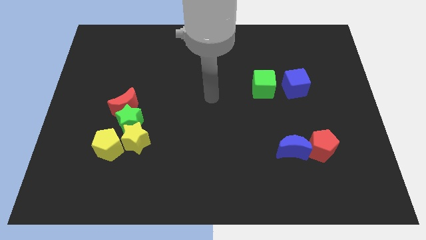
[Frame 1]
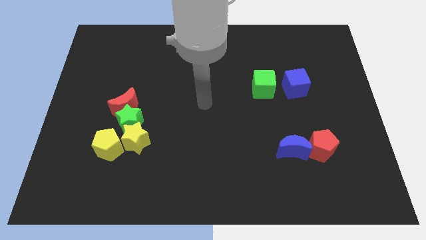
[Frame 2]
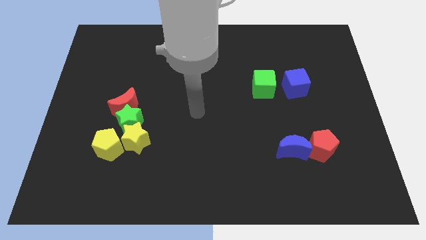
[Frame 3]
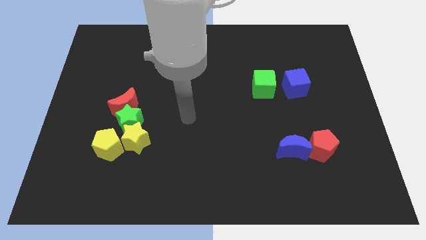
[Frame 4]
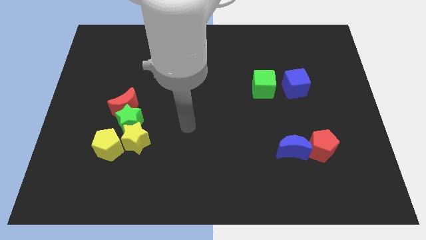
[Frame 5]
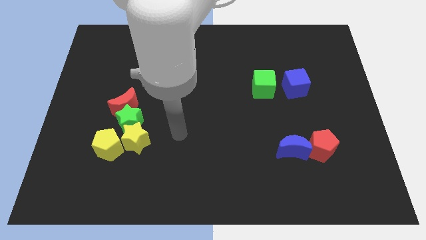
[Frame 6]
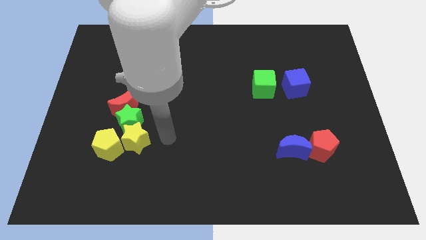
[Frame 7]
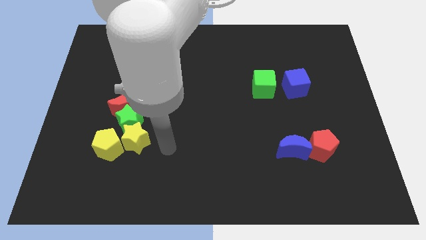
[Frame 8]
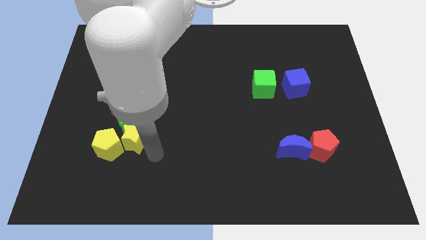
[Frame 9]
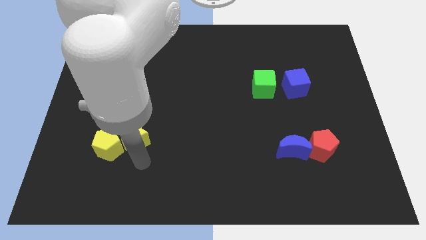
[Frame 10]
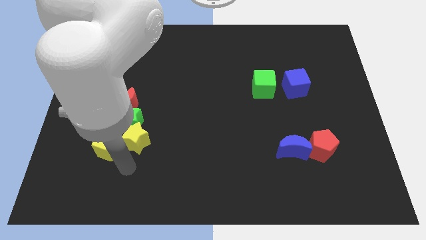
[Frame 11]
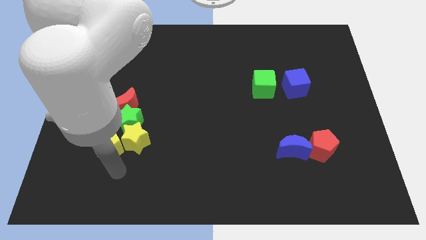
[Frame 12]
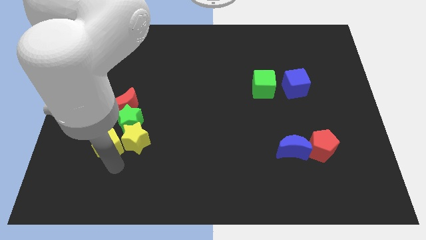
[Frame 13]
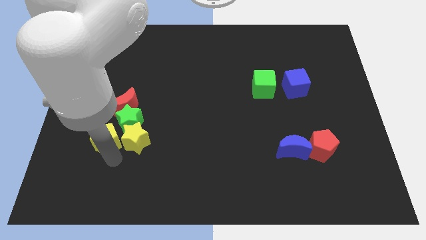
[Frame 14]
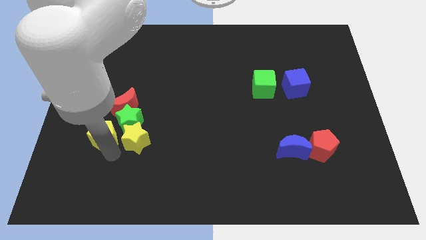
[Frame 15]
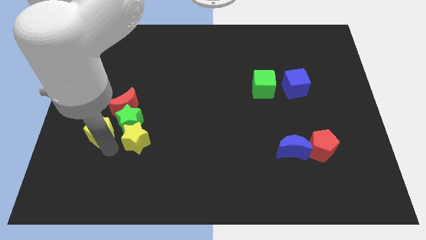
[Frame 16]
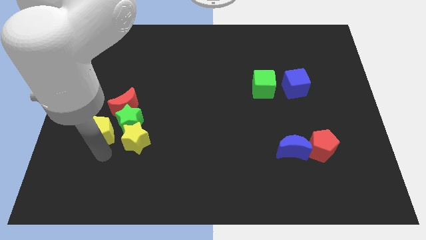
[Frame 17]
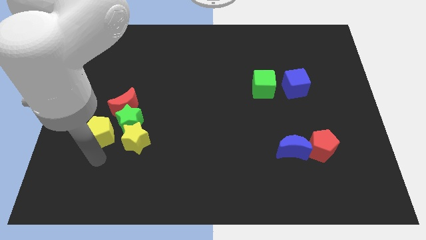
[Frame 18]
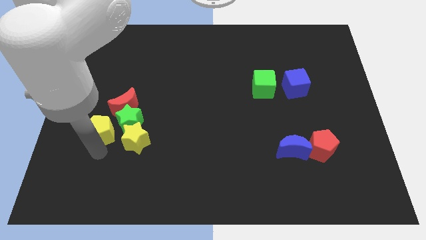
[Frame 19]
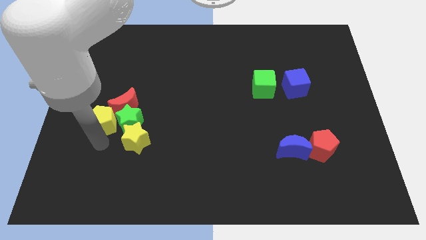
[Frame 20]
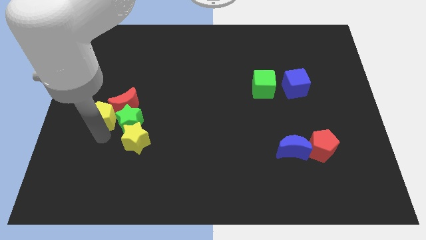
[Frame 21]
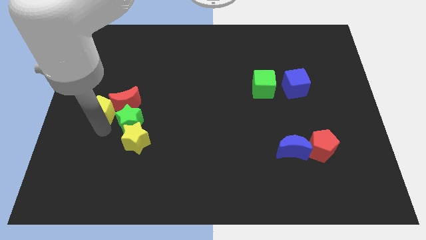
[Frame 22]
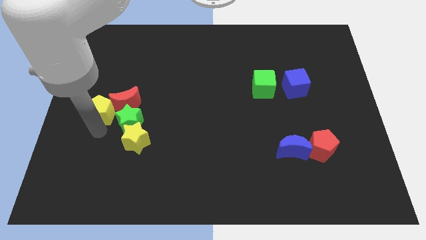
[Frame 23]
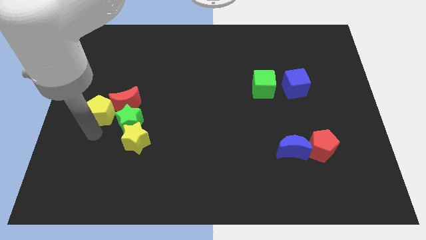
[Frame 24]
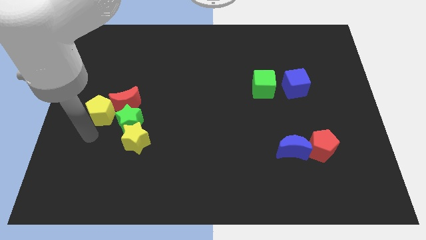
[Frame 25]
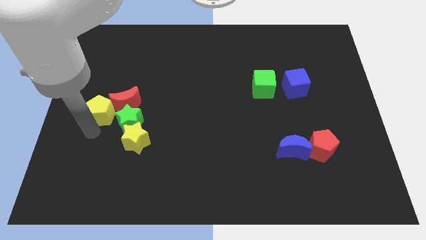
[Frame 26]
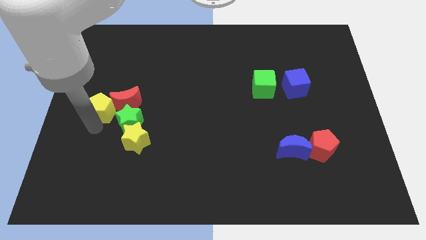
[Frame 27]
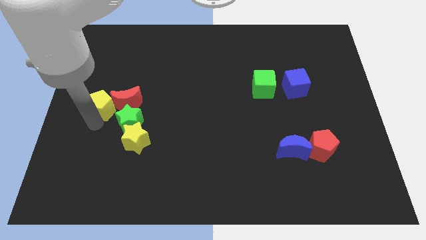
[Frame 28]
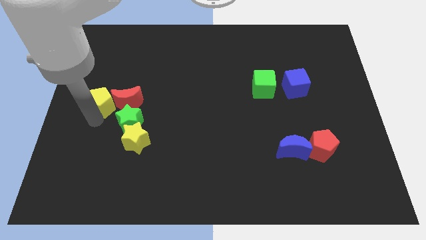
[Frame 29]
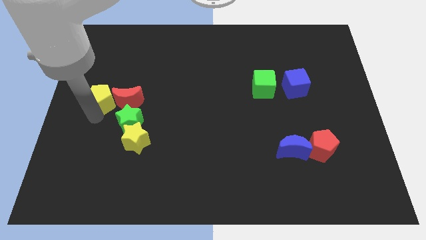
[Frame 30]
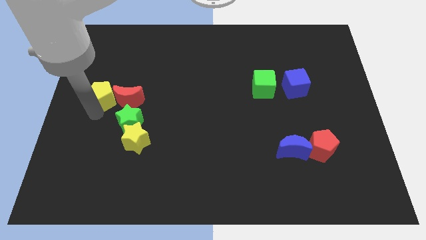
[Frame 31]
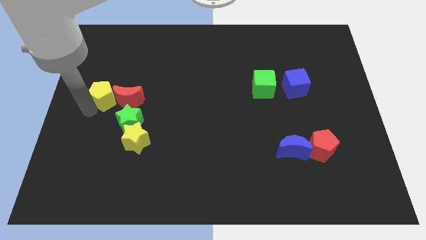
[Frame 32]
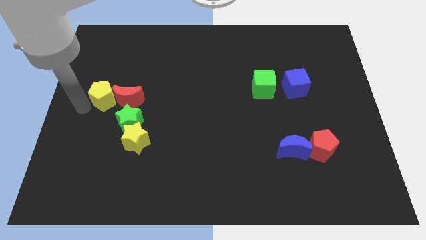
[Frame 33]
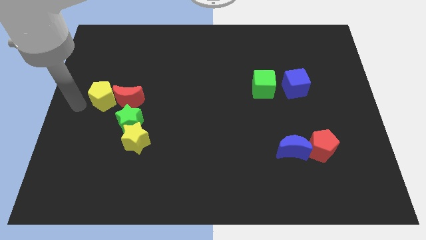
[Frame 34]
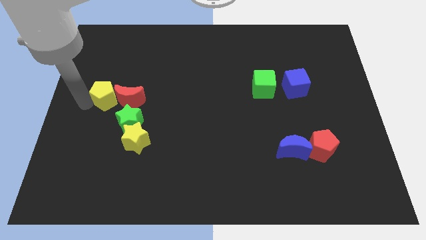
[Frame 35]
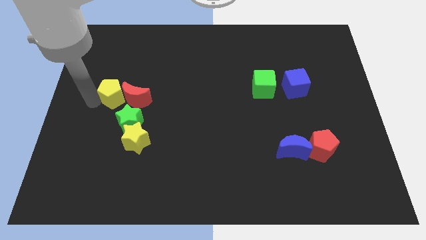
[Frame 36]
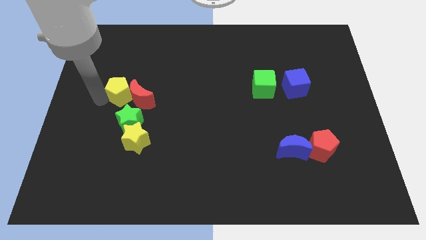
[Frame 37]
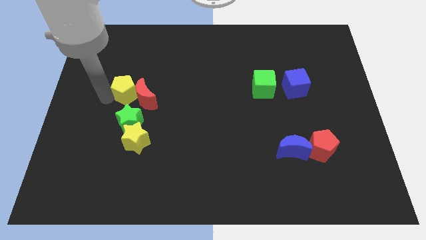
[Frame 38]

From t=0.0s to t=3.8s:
slide the yellow pentagon upwards and to the right diagonally somewhat

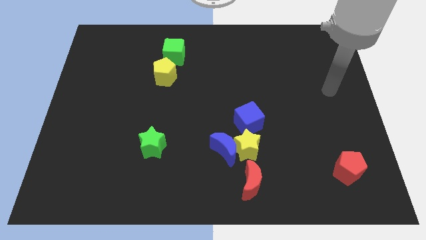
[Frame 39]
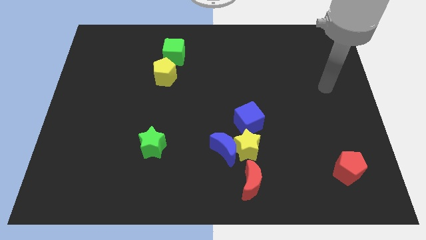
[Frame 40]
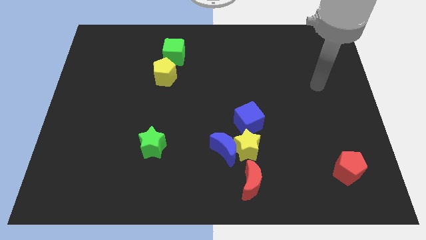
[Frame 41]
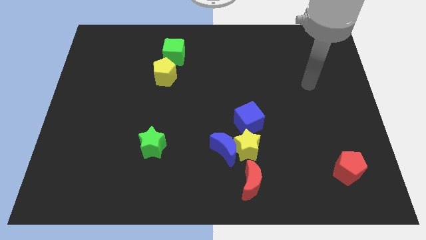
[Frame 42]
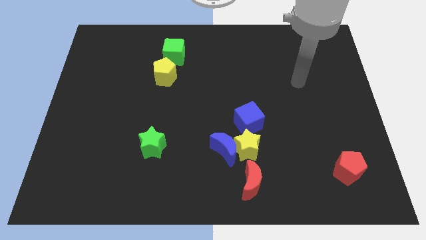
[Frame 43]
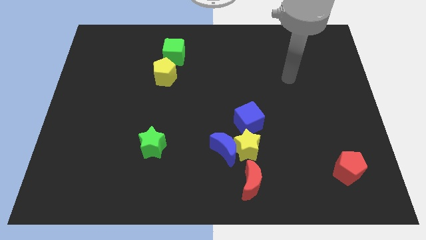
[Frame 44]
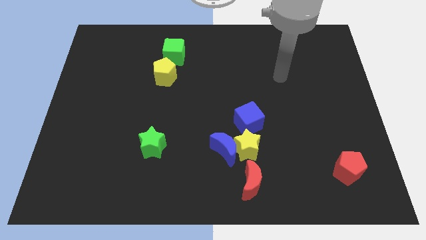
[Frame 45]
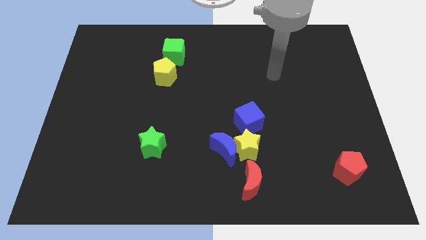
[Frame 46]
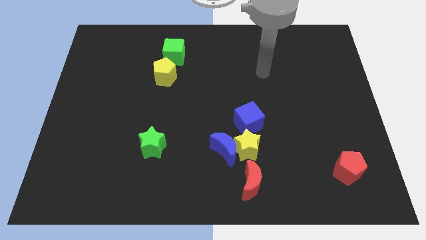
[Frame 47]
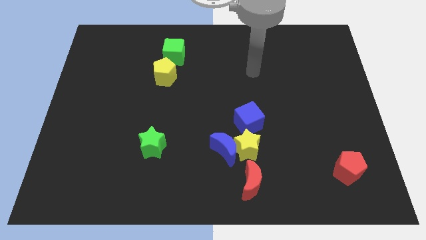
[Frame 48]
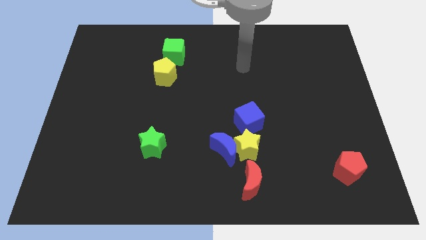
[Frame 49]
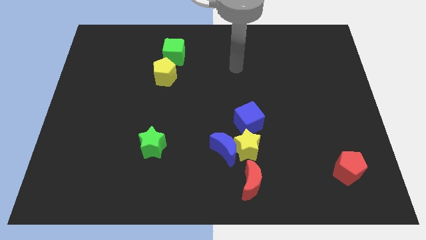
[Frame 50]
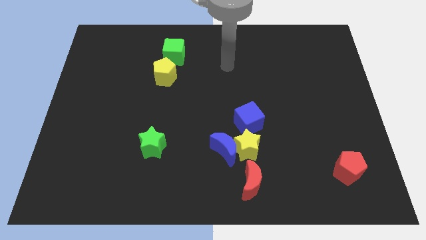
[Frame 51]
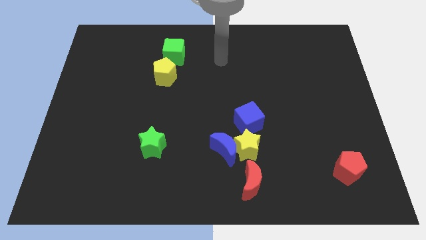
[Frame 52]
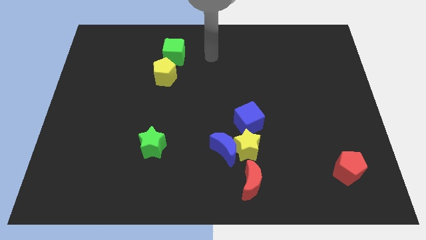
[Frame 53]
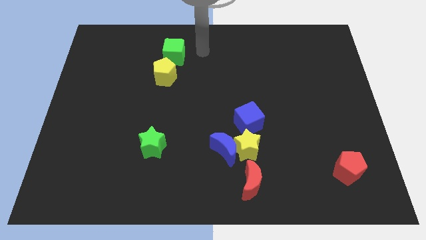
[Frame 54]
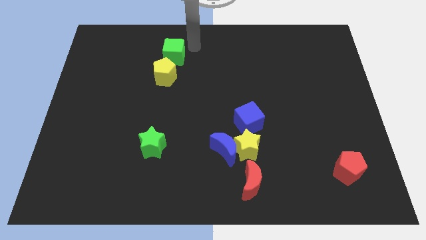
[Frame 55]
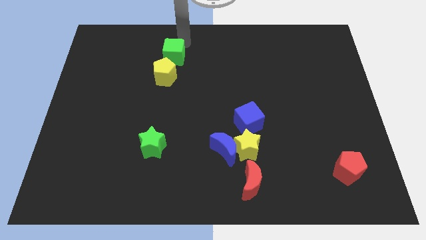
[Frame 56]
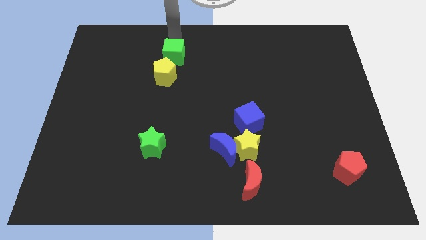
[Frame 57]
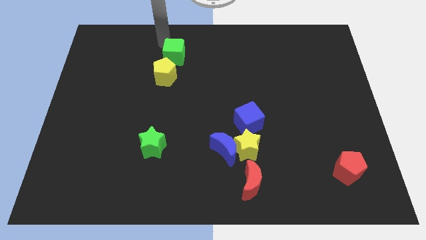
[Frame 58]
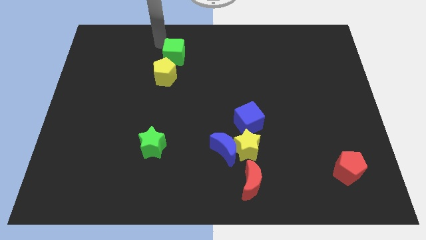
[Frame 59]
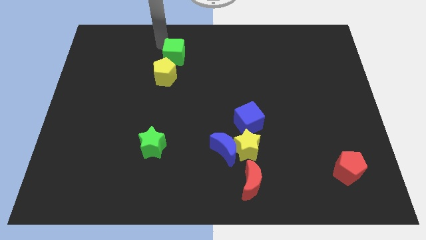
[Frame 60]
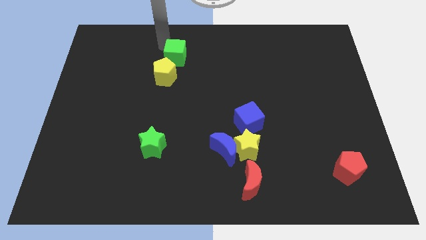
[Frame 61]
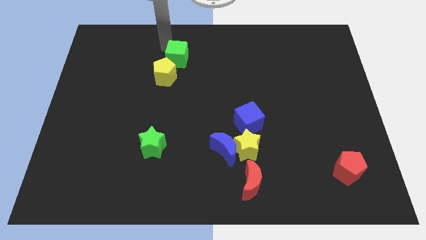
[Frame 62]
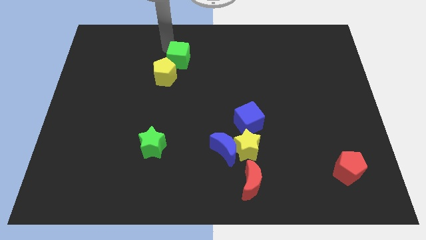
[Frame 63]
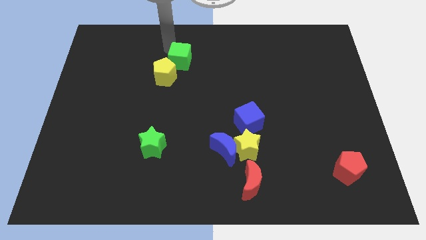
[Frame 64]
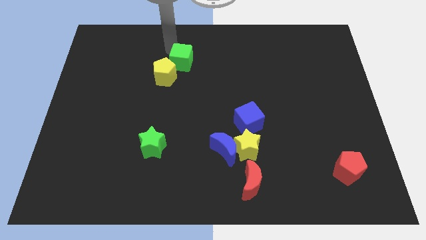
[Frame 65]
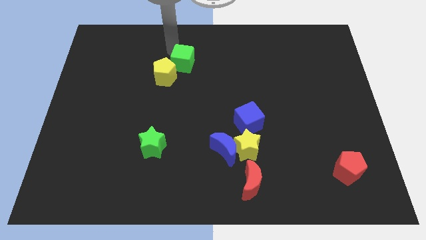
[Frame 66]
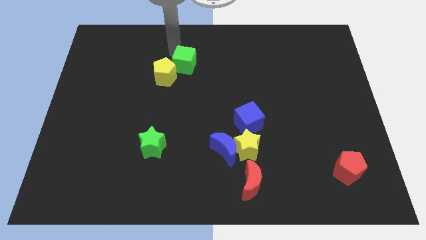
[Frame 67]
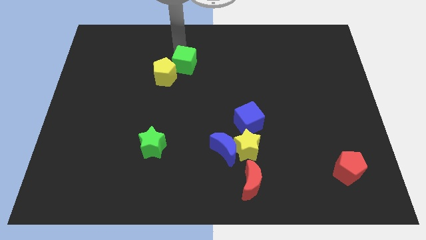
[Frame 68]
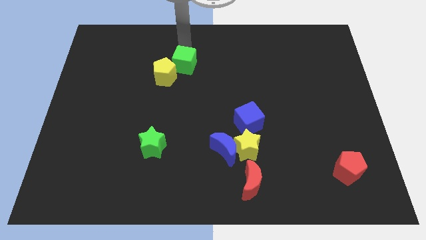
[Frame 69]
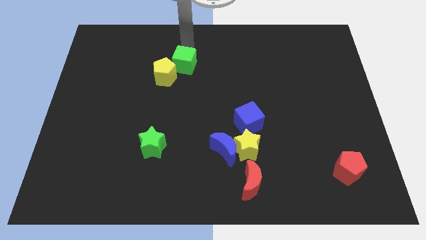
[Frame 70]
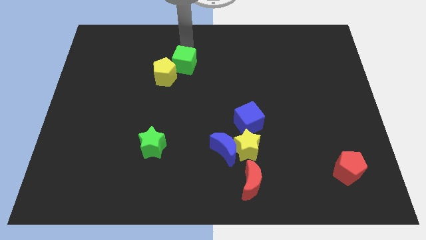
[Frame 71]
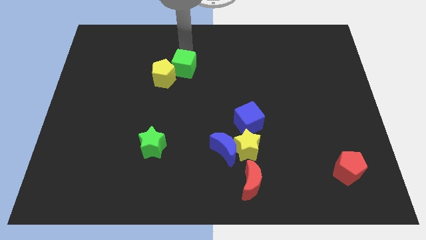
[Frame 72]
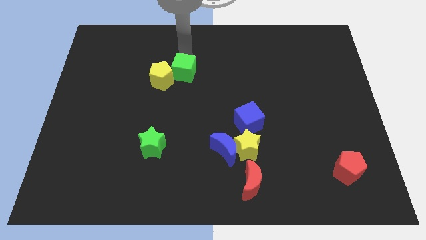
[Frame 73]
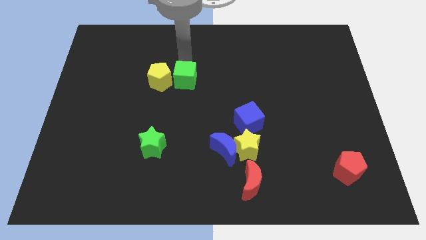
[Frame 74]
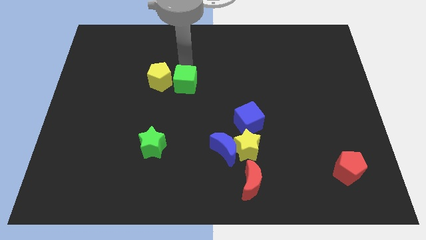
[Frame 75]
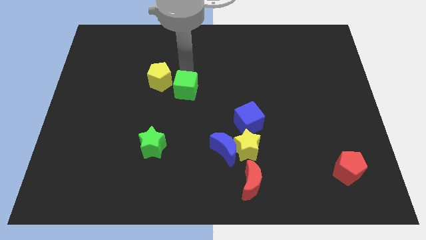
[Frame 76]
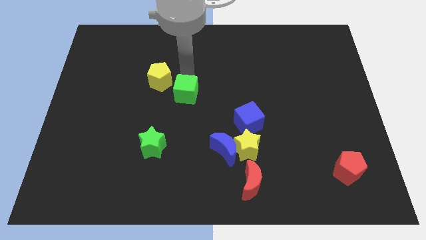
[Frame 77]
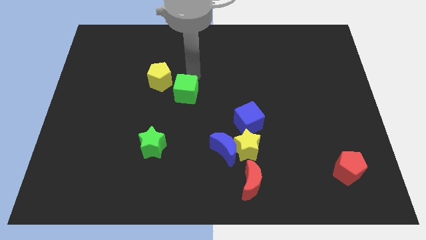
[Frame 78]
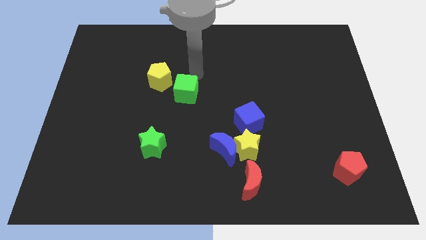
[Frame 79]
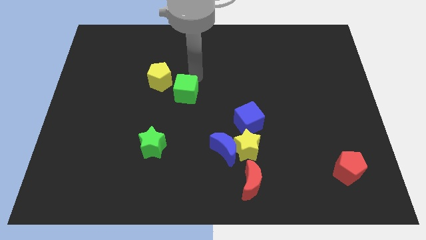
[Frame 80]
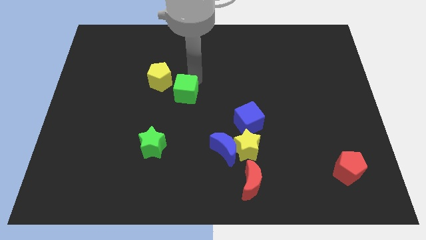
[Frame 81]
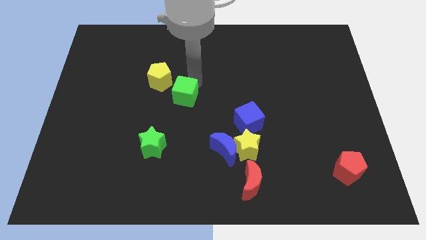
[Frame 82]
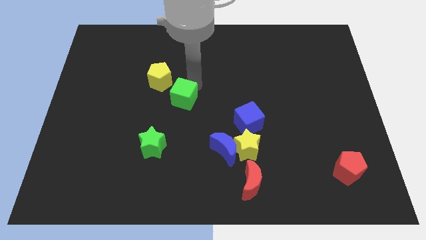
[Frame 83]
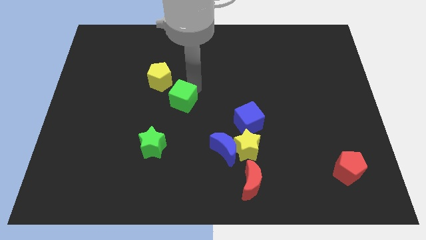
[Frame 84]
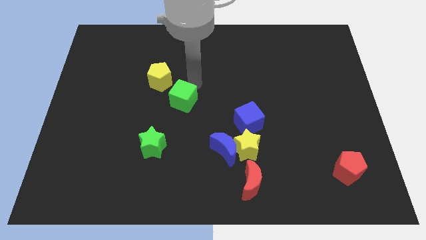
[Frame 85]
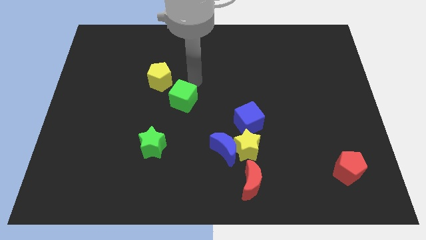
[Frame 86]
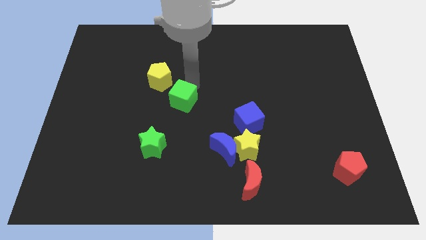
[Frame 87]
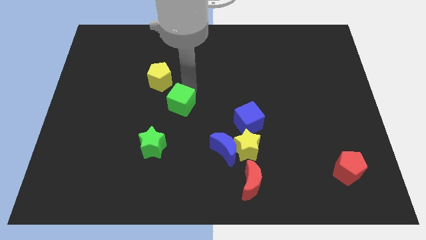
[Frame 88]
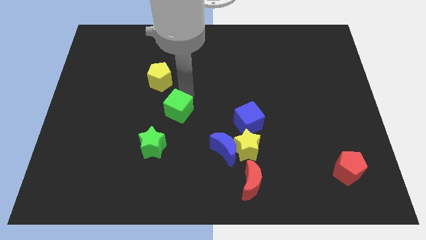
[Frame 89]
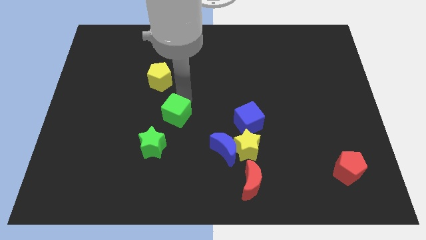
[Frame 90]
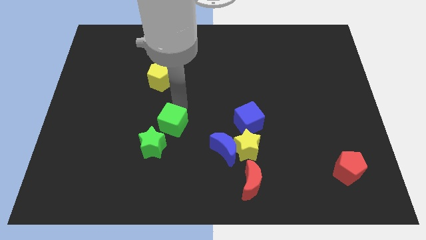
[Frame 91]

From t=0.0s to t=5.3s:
push the green cube downwards
